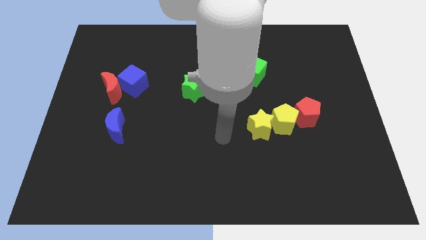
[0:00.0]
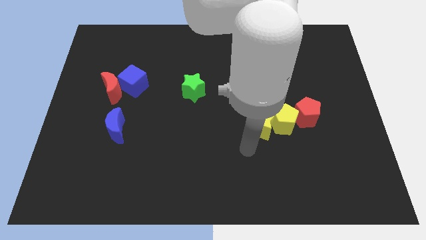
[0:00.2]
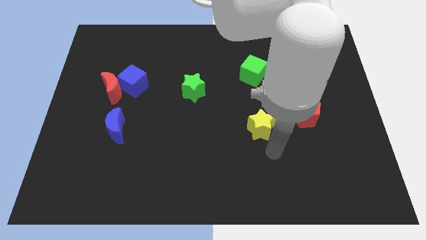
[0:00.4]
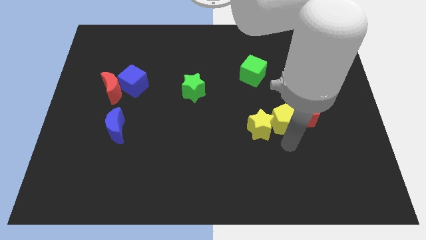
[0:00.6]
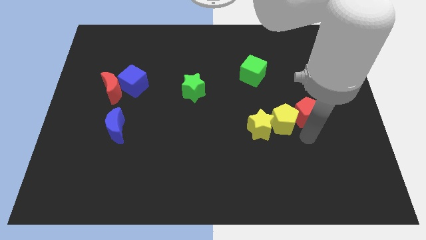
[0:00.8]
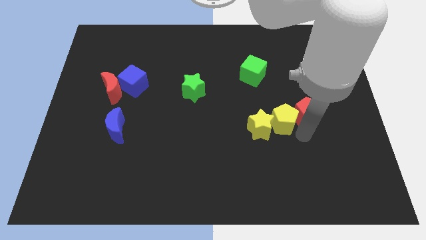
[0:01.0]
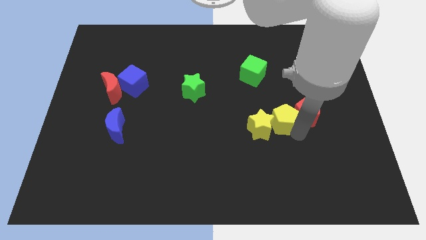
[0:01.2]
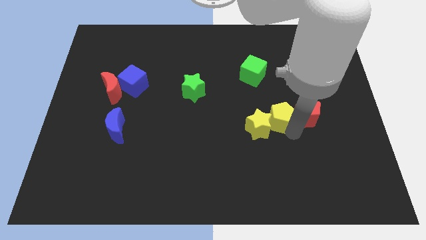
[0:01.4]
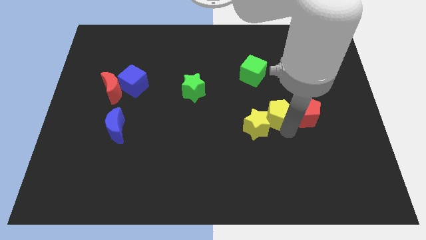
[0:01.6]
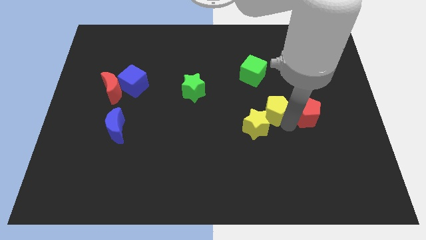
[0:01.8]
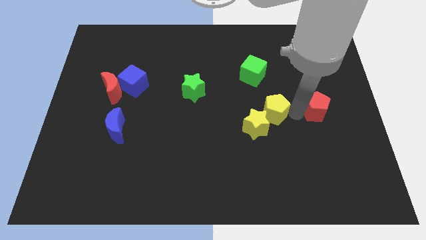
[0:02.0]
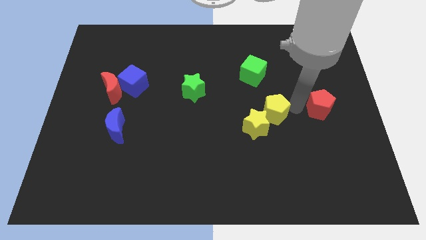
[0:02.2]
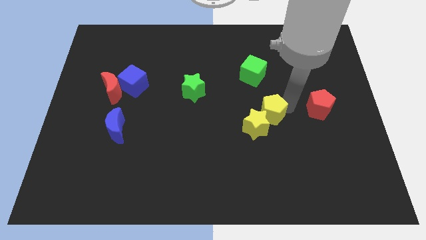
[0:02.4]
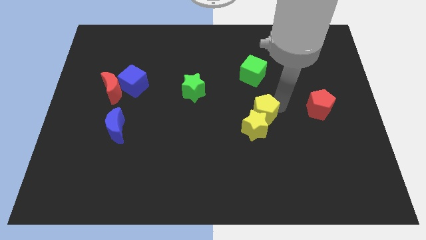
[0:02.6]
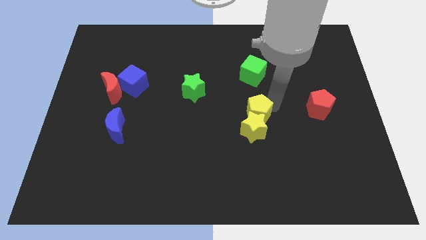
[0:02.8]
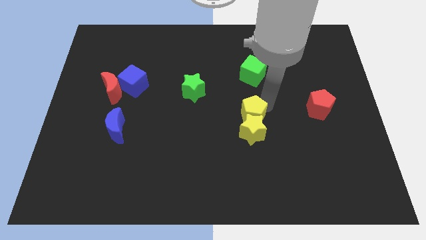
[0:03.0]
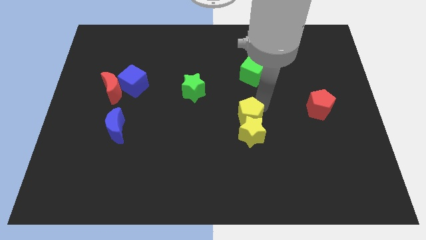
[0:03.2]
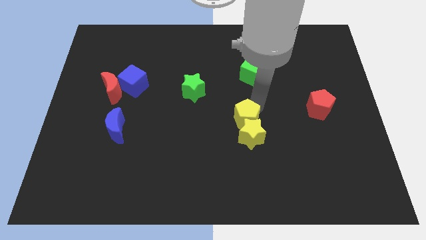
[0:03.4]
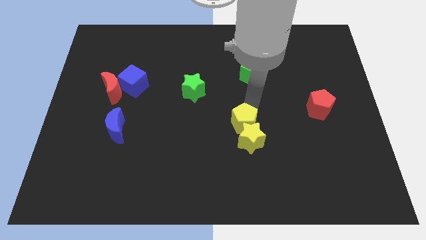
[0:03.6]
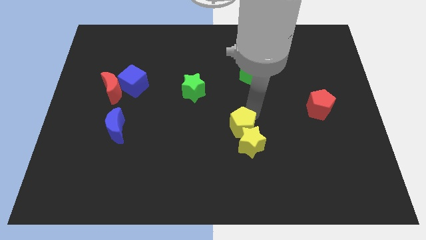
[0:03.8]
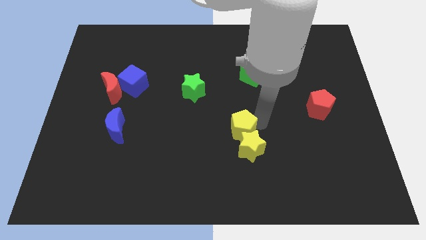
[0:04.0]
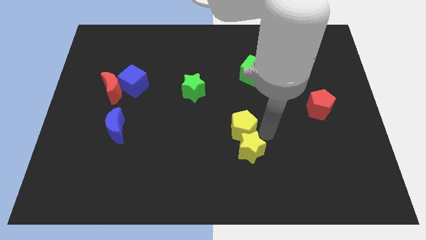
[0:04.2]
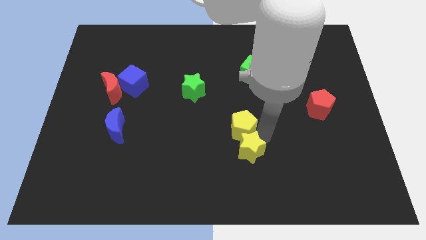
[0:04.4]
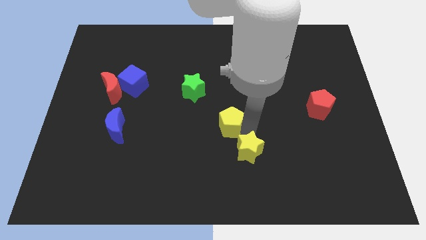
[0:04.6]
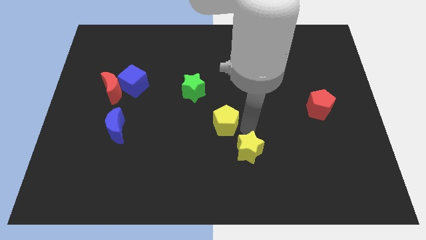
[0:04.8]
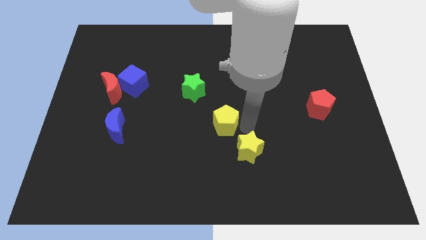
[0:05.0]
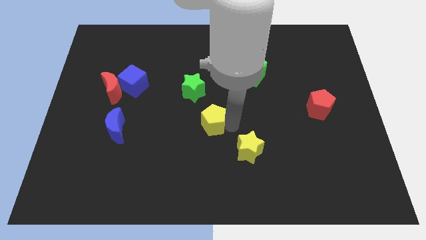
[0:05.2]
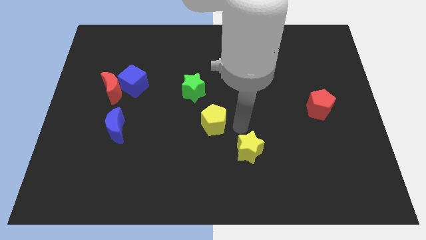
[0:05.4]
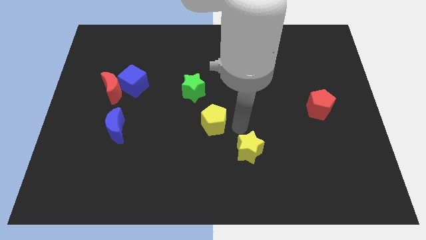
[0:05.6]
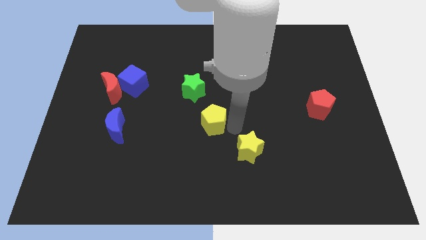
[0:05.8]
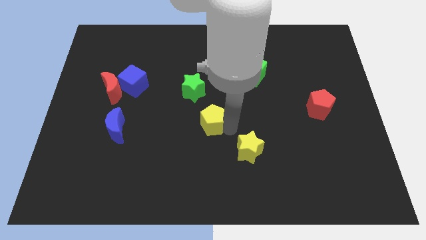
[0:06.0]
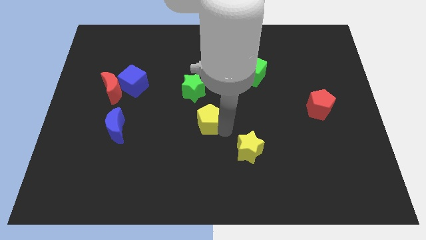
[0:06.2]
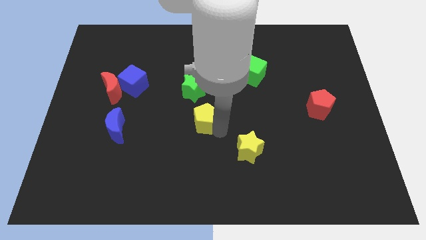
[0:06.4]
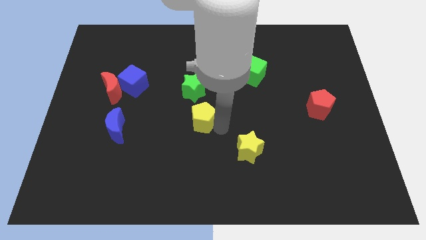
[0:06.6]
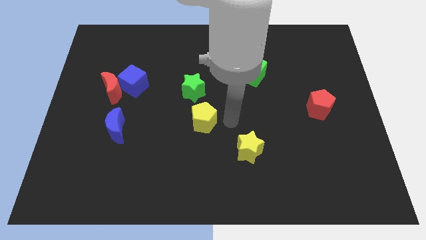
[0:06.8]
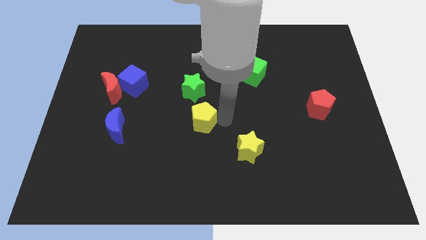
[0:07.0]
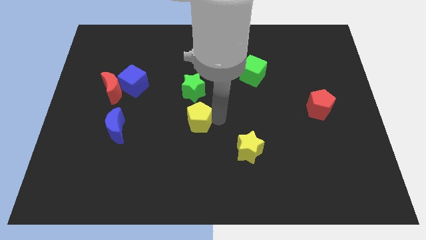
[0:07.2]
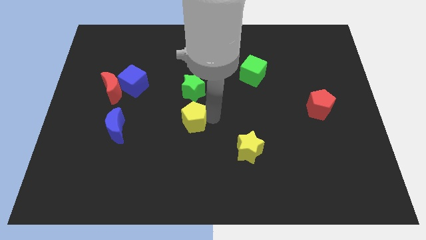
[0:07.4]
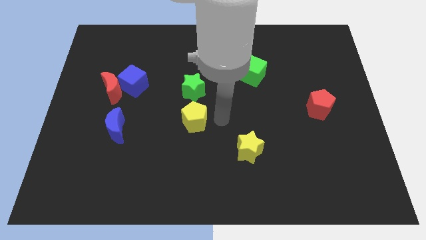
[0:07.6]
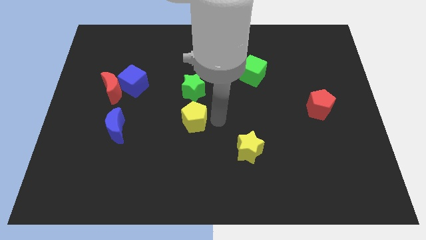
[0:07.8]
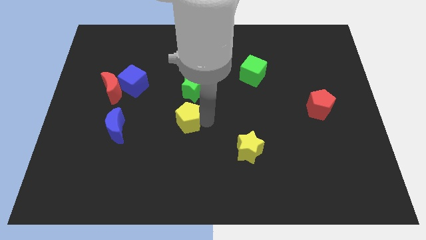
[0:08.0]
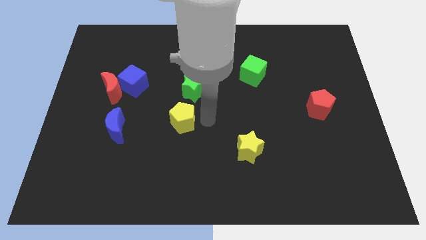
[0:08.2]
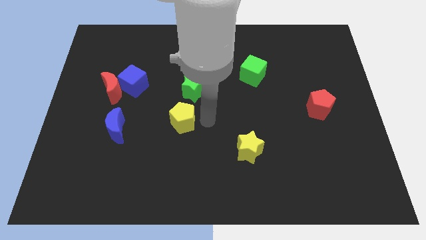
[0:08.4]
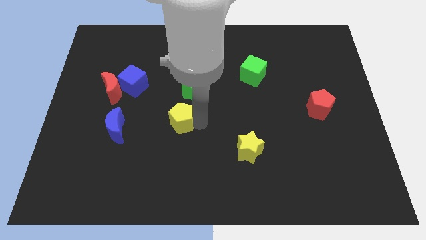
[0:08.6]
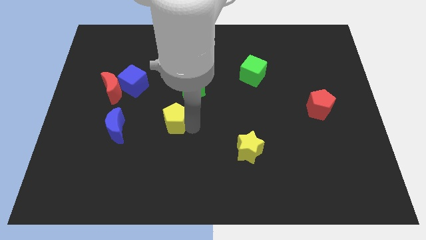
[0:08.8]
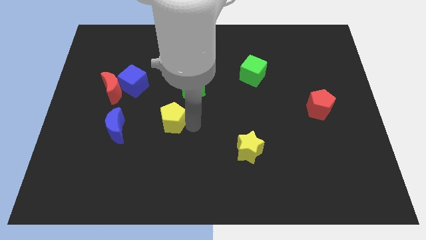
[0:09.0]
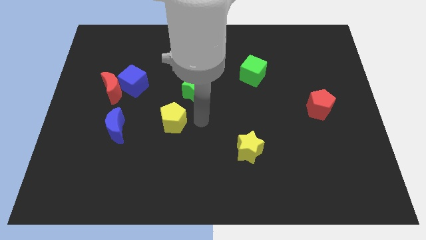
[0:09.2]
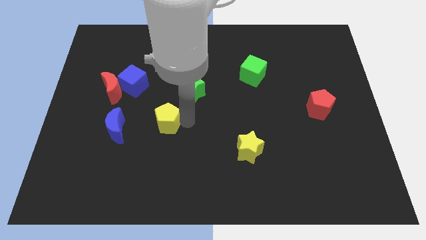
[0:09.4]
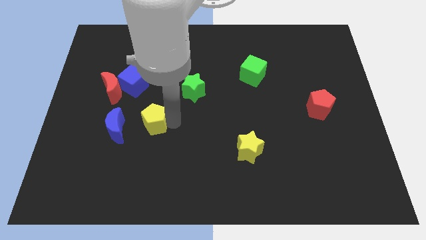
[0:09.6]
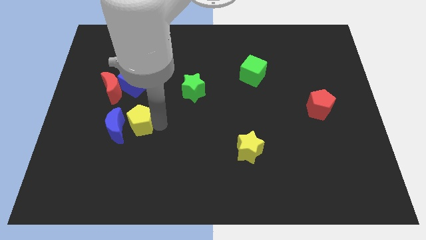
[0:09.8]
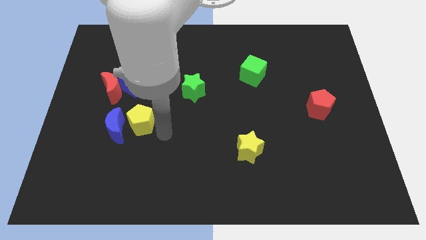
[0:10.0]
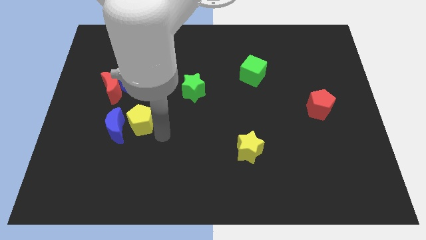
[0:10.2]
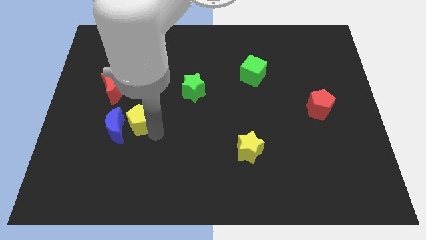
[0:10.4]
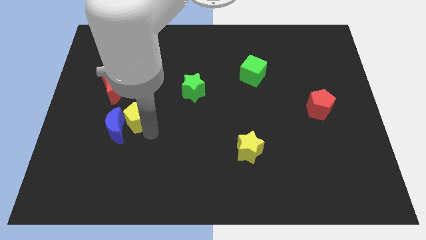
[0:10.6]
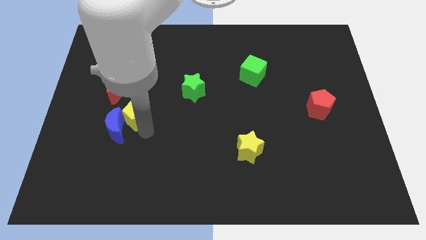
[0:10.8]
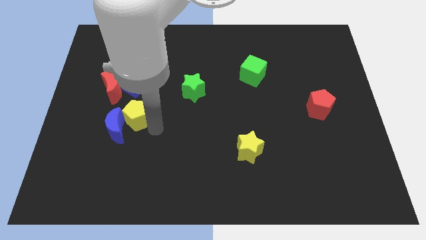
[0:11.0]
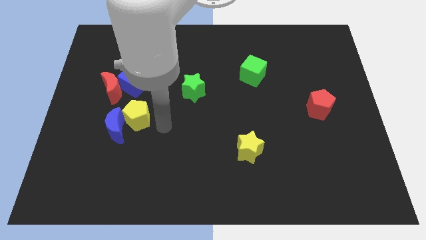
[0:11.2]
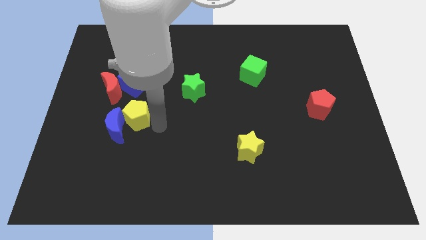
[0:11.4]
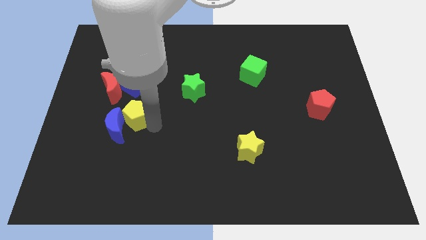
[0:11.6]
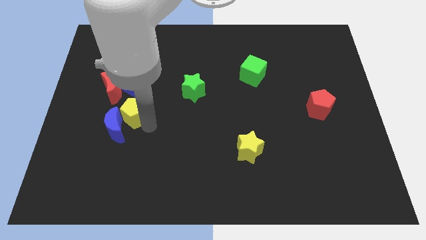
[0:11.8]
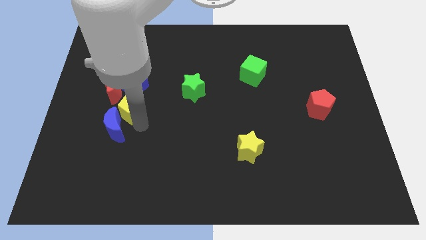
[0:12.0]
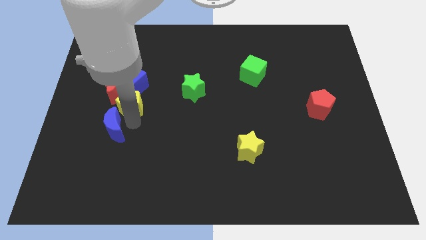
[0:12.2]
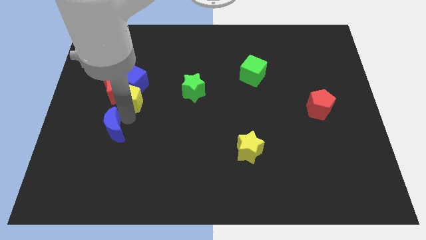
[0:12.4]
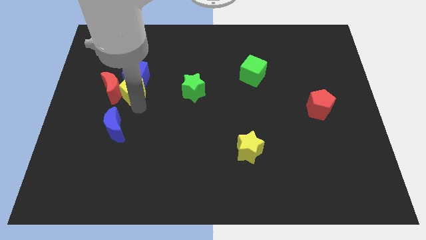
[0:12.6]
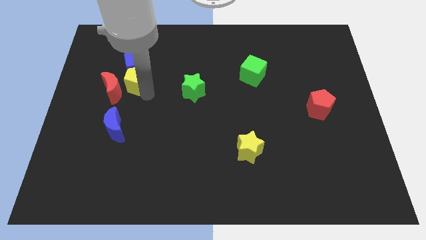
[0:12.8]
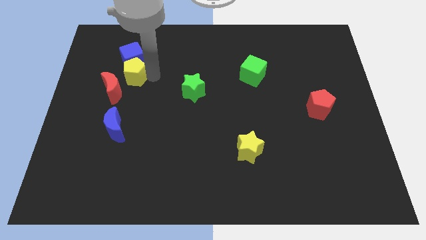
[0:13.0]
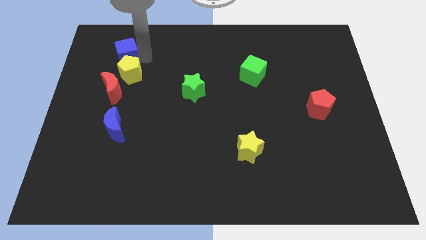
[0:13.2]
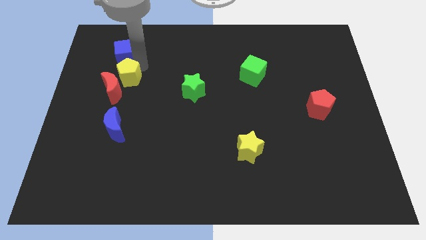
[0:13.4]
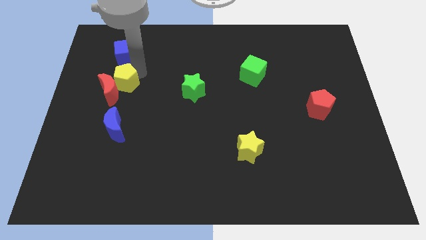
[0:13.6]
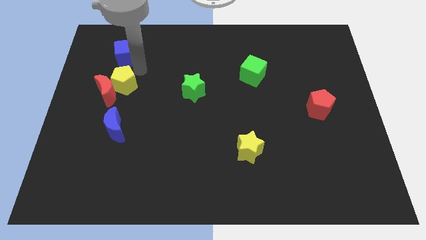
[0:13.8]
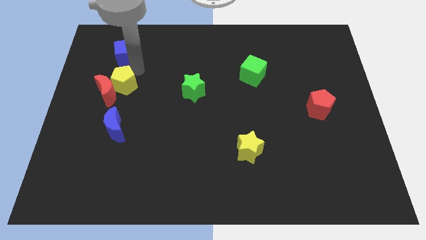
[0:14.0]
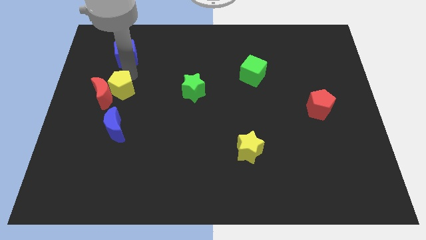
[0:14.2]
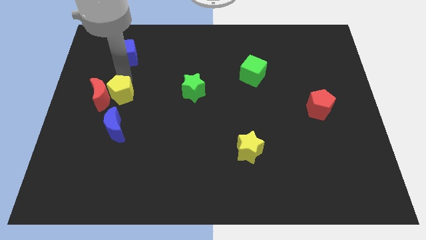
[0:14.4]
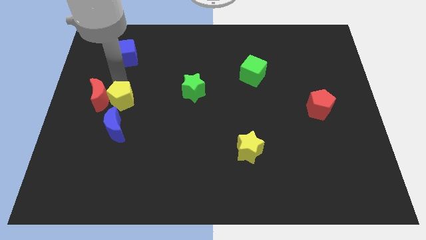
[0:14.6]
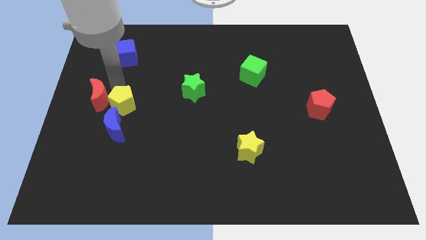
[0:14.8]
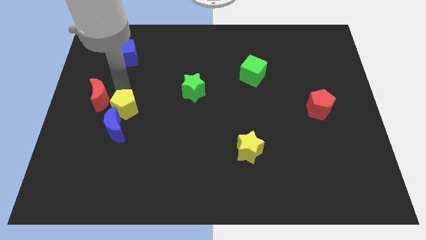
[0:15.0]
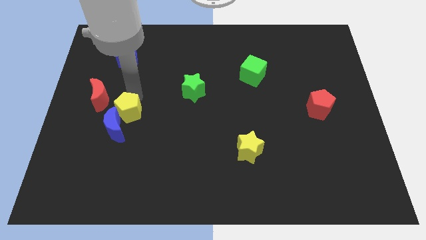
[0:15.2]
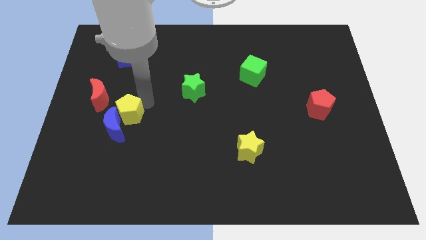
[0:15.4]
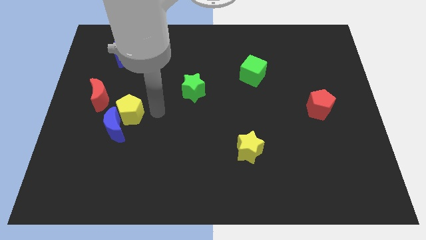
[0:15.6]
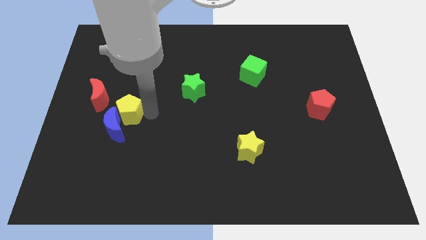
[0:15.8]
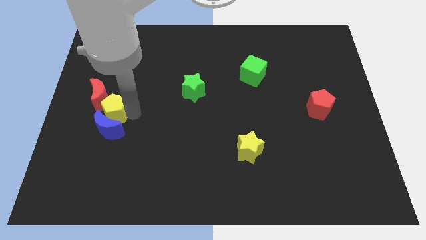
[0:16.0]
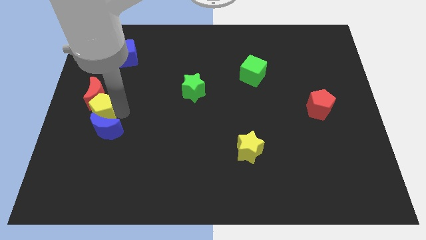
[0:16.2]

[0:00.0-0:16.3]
push the yellow pentagon to the center left
